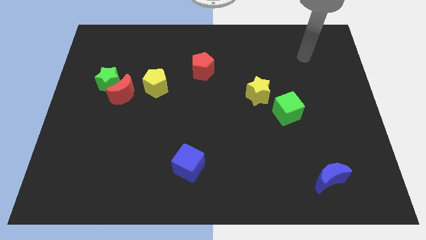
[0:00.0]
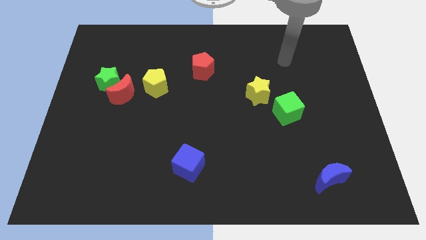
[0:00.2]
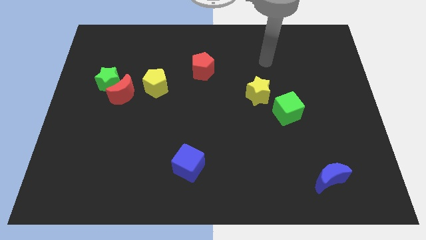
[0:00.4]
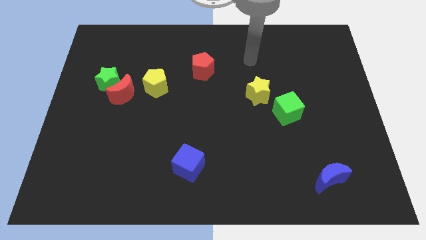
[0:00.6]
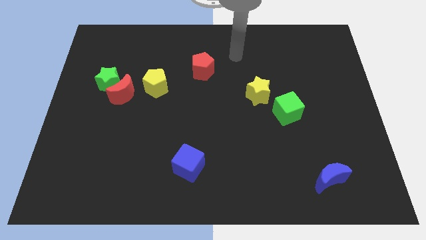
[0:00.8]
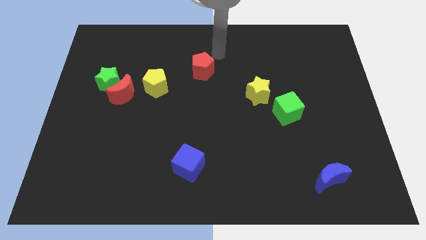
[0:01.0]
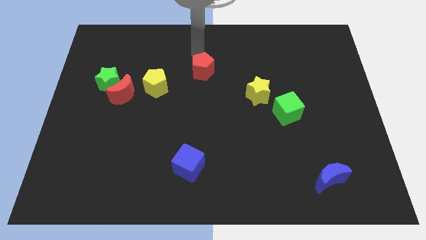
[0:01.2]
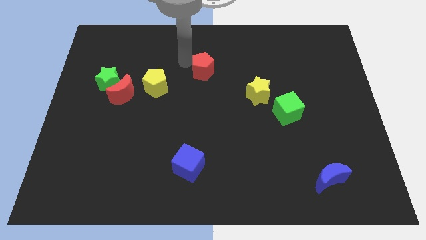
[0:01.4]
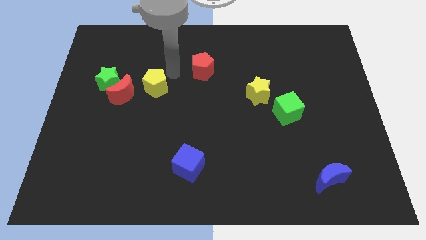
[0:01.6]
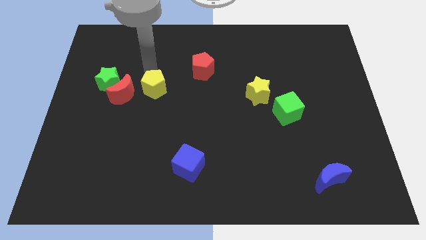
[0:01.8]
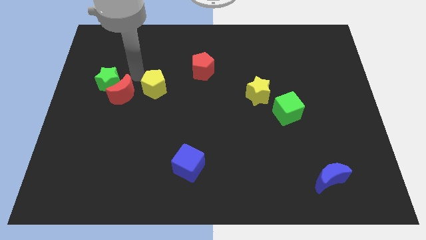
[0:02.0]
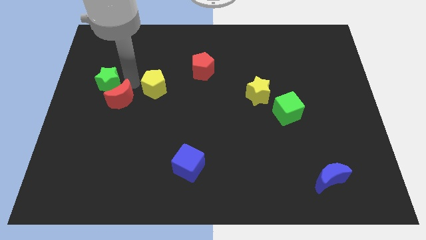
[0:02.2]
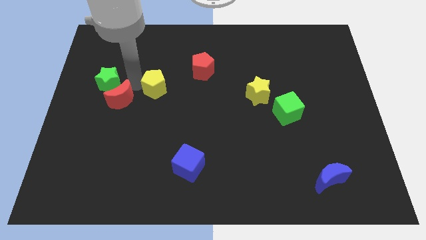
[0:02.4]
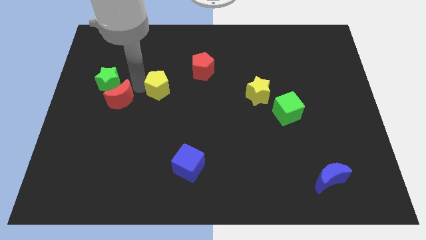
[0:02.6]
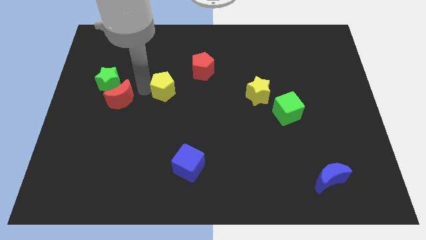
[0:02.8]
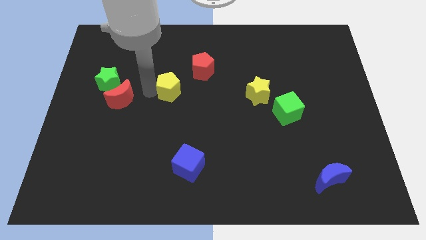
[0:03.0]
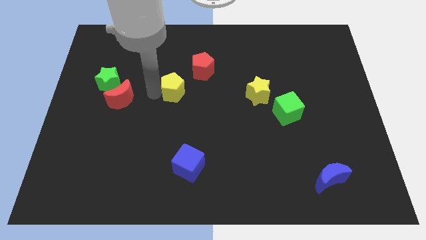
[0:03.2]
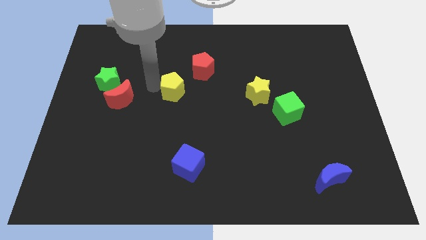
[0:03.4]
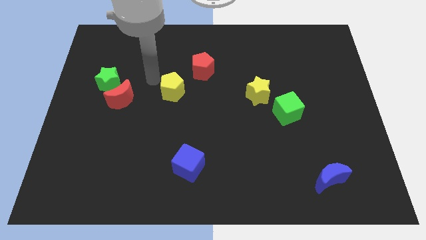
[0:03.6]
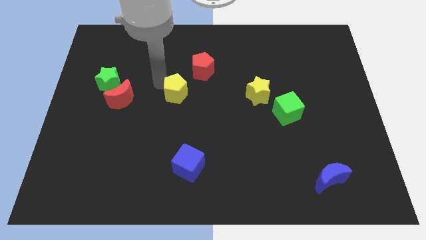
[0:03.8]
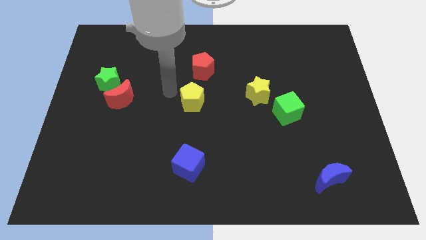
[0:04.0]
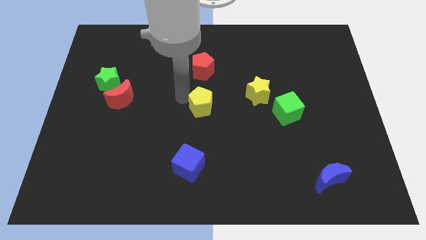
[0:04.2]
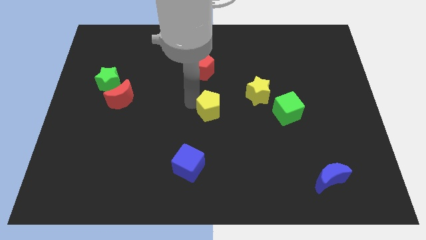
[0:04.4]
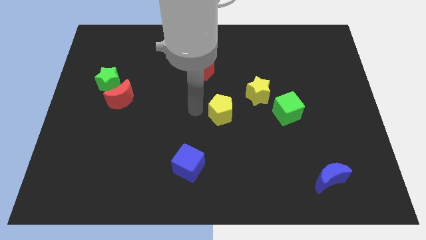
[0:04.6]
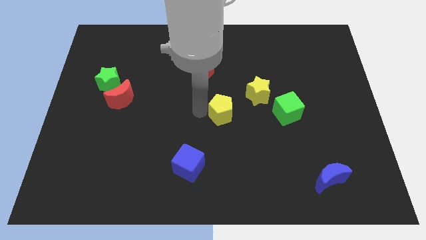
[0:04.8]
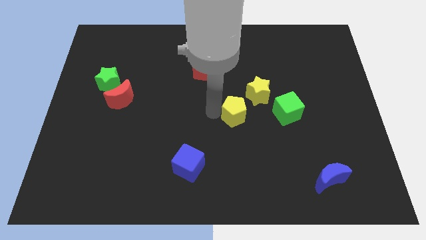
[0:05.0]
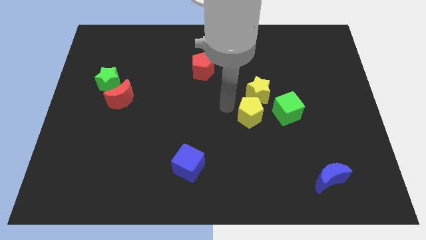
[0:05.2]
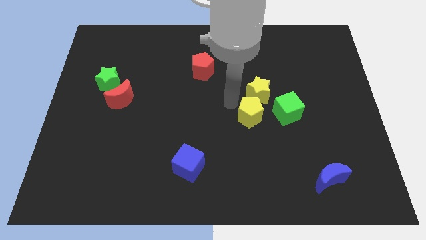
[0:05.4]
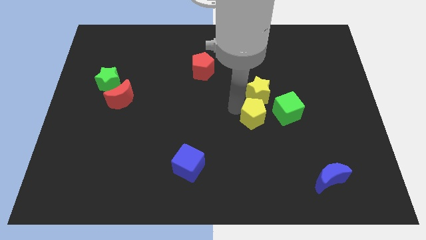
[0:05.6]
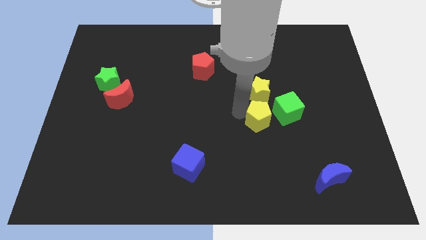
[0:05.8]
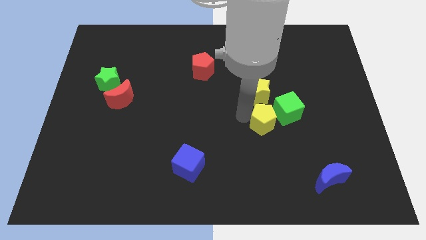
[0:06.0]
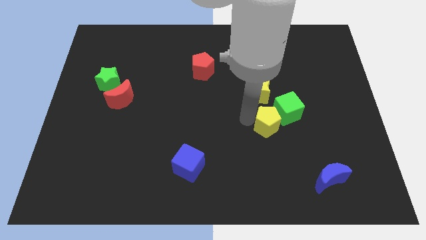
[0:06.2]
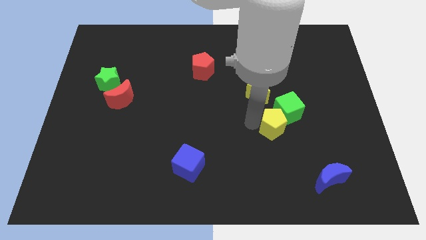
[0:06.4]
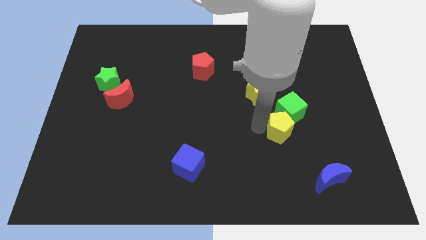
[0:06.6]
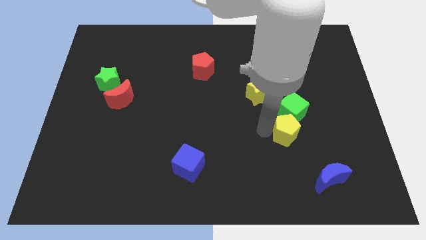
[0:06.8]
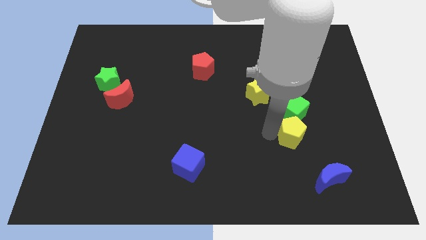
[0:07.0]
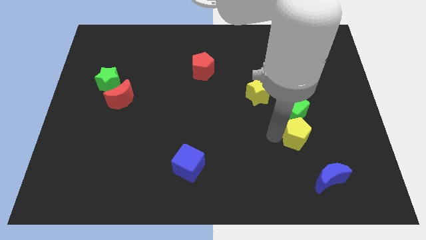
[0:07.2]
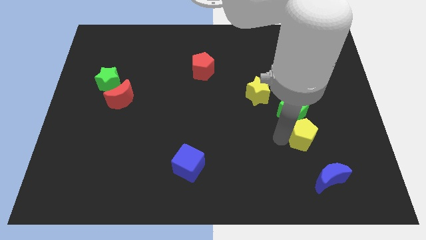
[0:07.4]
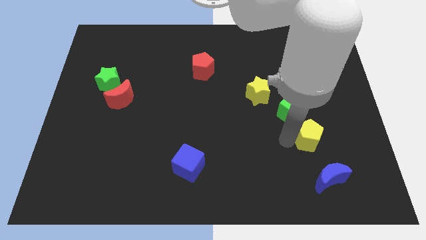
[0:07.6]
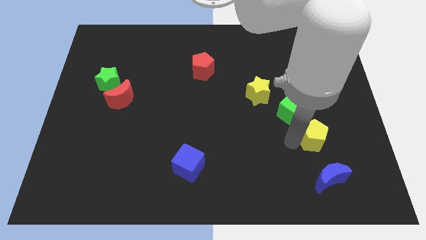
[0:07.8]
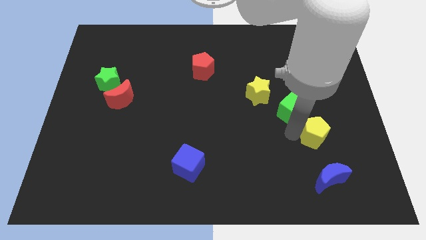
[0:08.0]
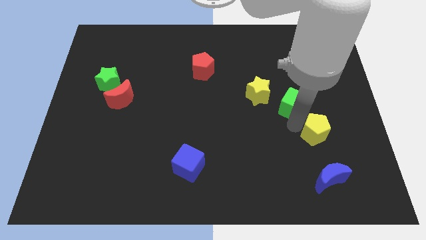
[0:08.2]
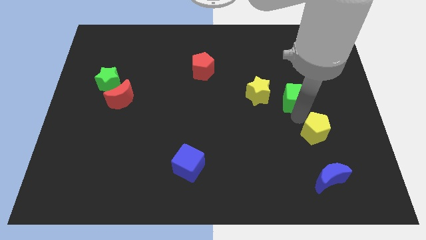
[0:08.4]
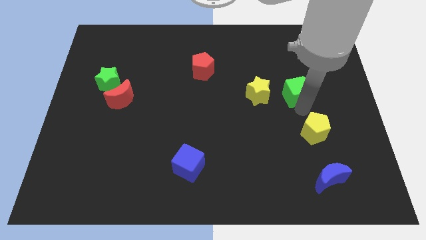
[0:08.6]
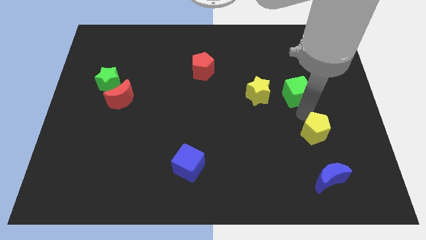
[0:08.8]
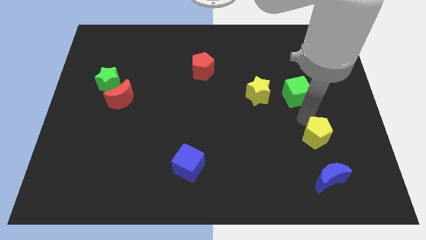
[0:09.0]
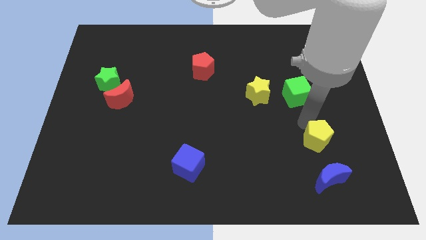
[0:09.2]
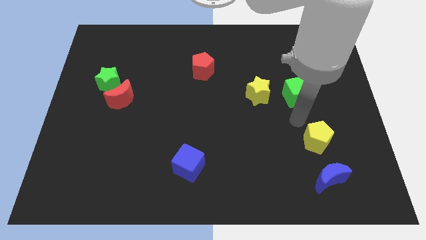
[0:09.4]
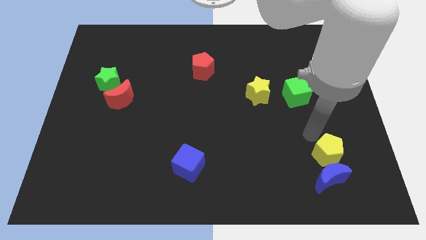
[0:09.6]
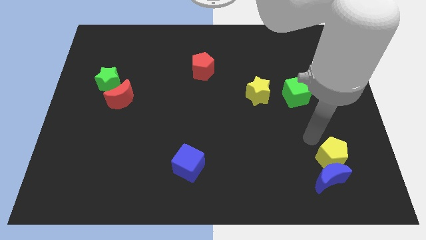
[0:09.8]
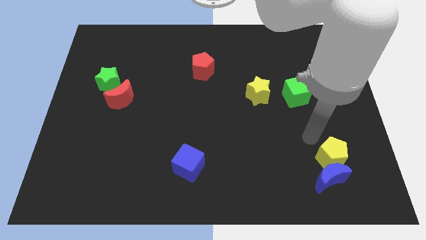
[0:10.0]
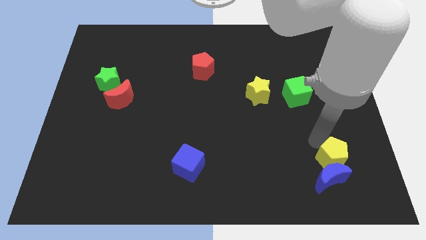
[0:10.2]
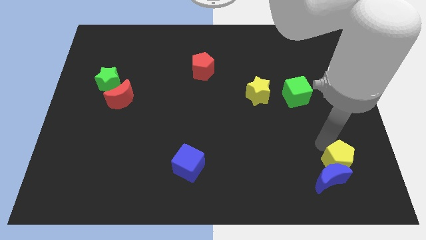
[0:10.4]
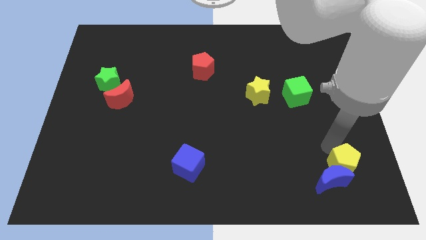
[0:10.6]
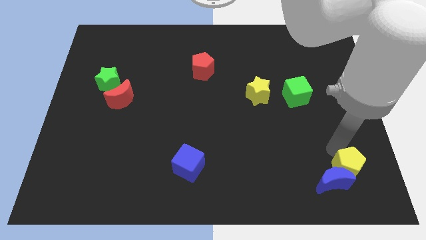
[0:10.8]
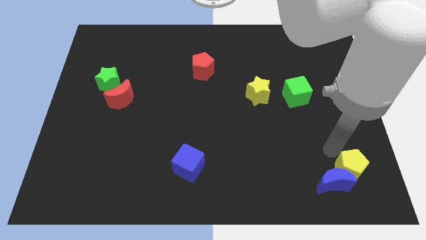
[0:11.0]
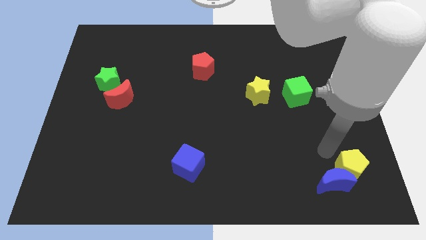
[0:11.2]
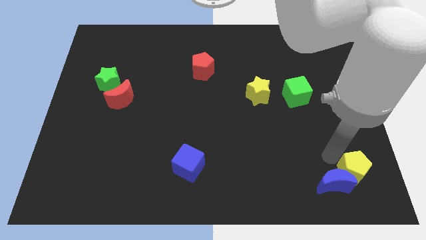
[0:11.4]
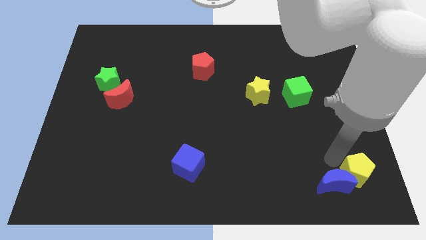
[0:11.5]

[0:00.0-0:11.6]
push the yellow pentagon to the bottom right

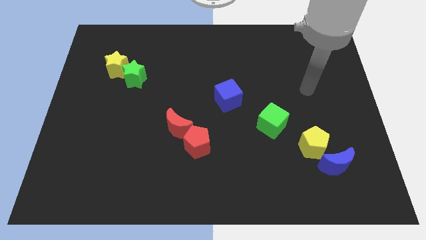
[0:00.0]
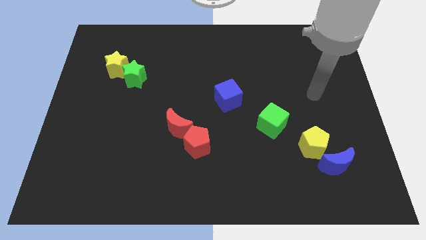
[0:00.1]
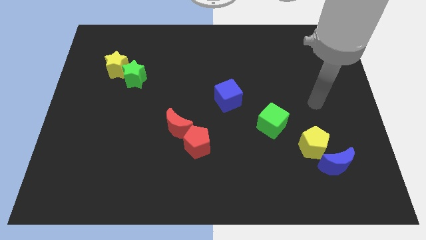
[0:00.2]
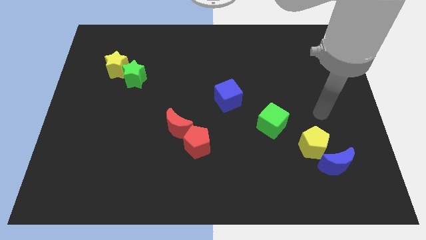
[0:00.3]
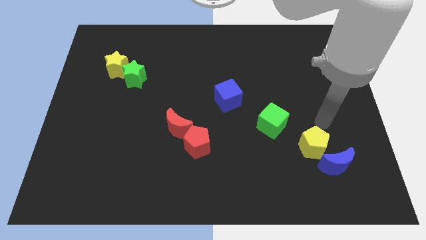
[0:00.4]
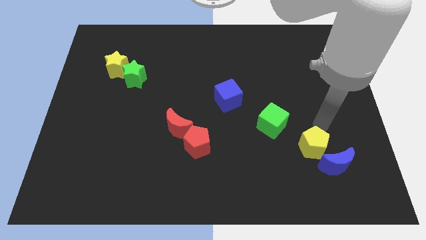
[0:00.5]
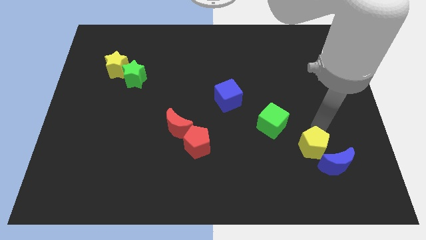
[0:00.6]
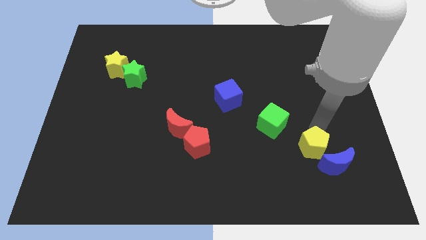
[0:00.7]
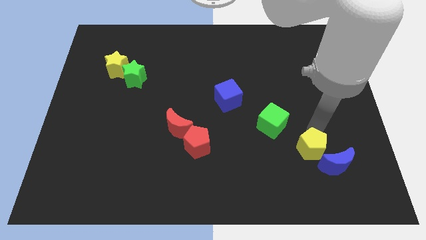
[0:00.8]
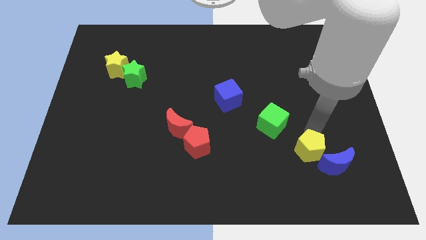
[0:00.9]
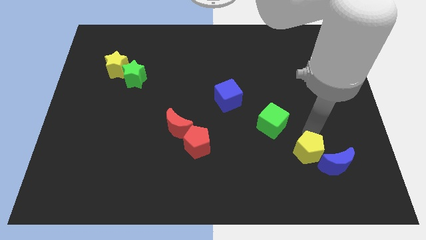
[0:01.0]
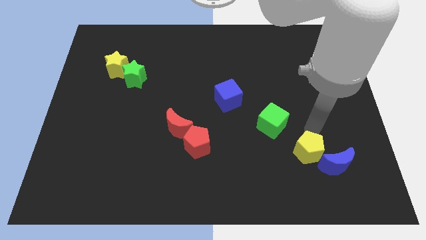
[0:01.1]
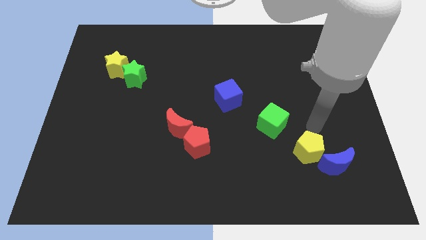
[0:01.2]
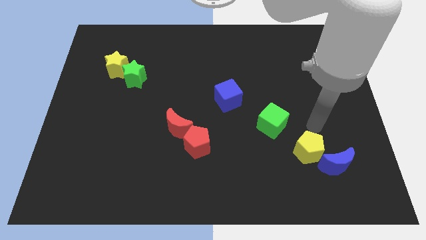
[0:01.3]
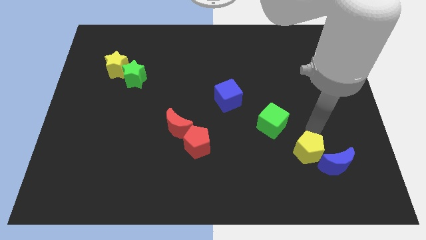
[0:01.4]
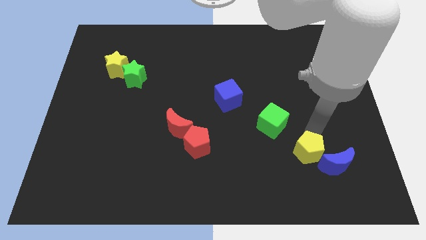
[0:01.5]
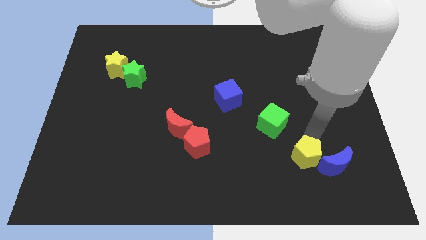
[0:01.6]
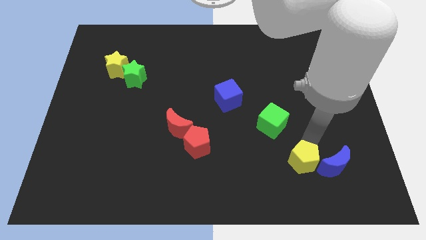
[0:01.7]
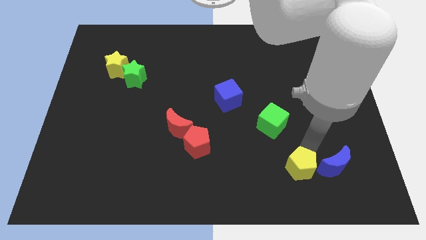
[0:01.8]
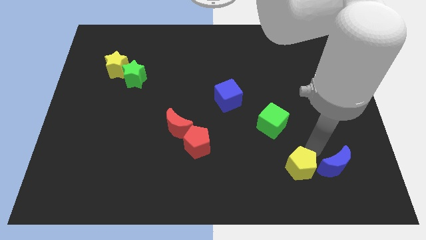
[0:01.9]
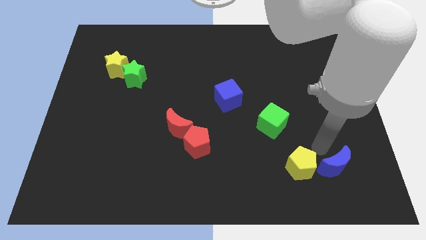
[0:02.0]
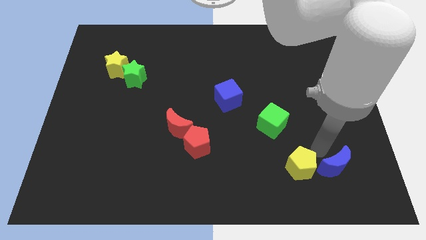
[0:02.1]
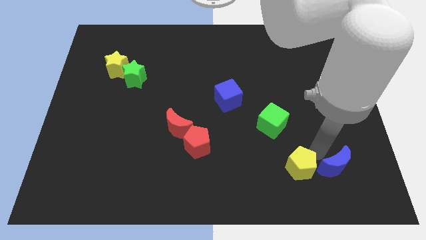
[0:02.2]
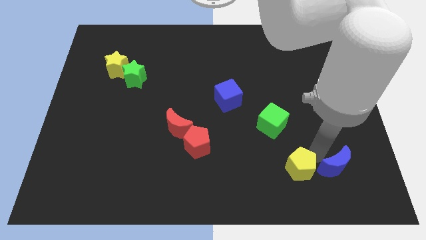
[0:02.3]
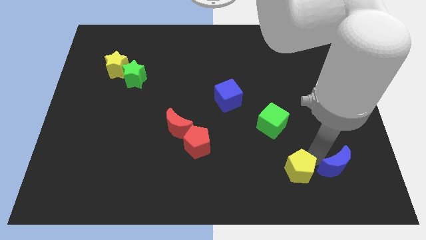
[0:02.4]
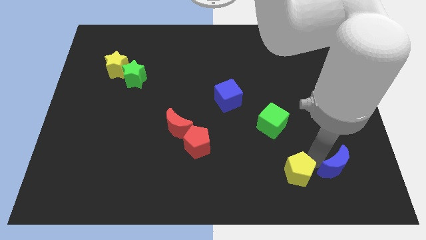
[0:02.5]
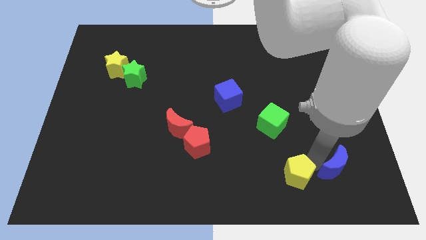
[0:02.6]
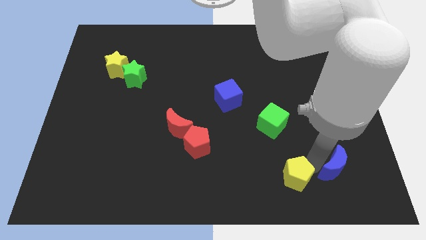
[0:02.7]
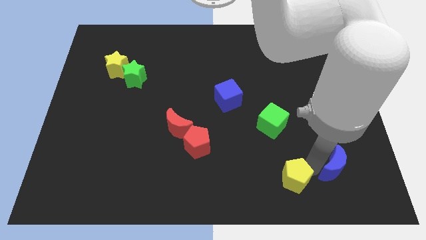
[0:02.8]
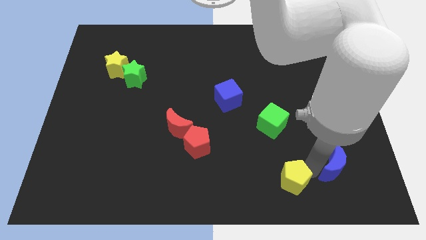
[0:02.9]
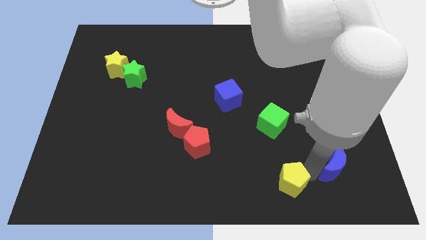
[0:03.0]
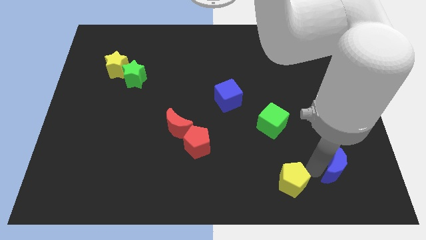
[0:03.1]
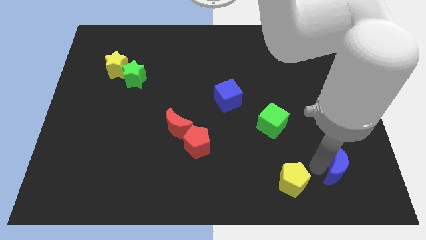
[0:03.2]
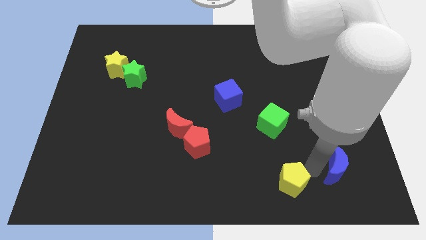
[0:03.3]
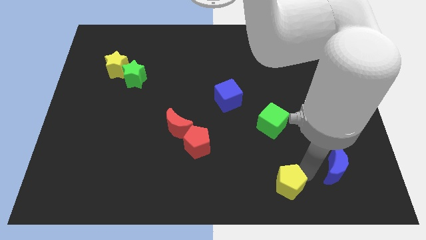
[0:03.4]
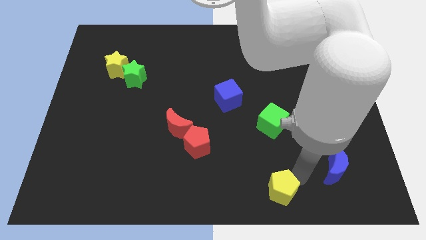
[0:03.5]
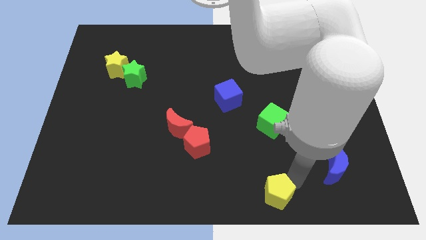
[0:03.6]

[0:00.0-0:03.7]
move the yellow pentagon to the bottom
